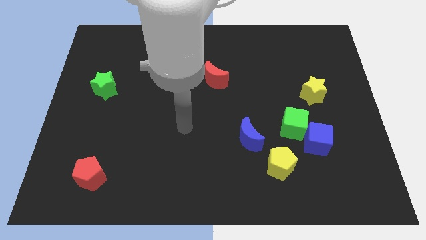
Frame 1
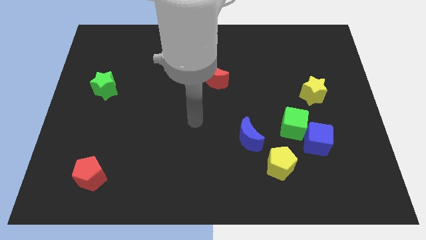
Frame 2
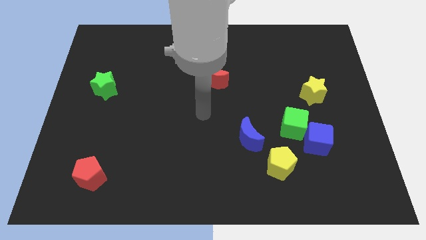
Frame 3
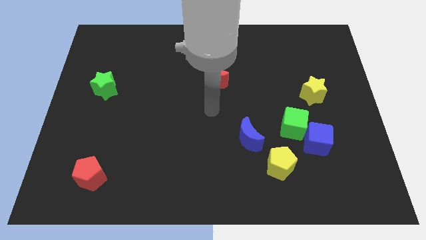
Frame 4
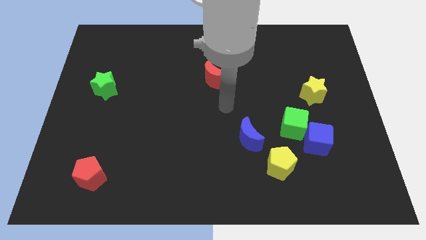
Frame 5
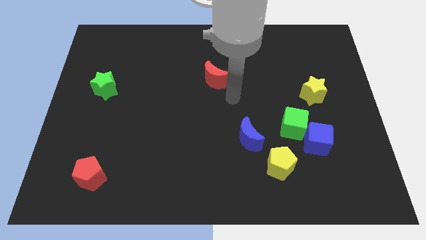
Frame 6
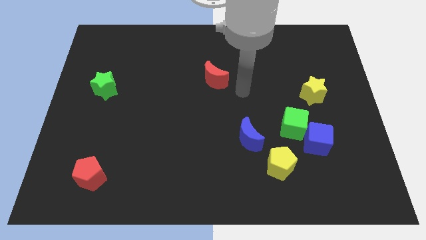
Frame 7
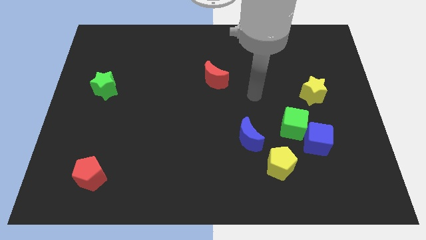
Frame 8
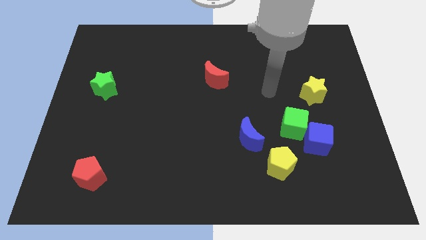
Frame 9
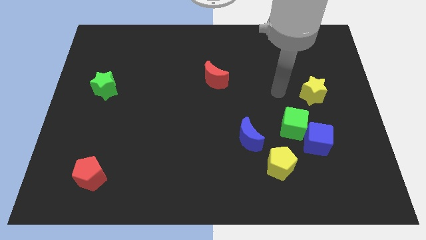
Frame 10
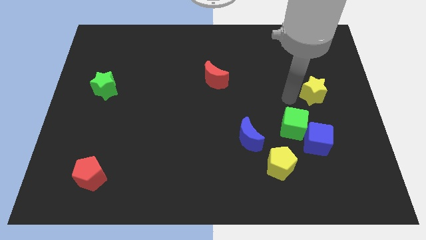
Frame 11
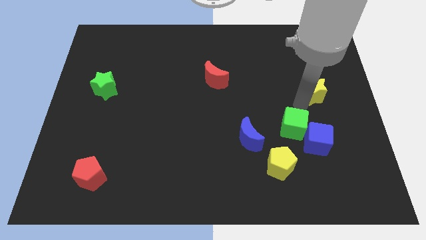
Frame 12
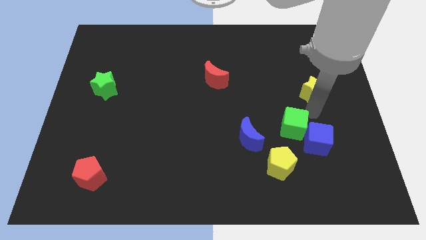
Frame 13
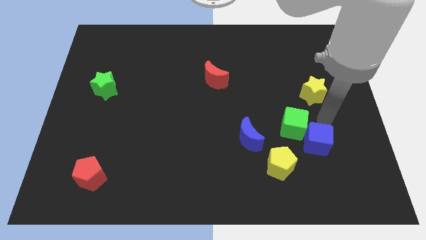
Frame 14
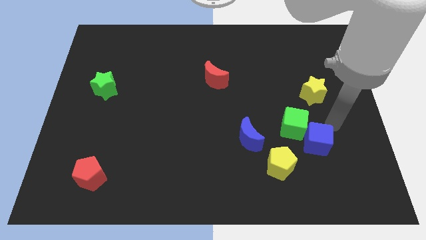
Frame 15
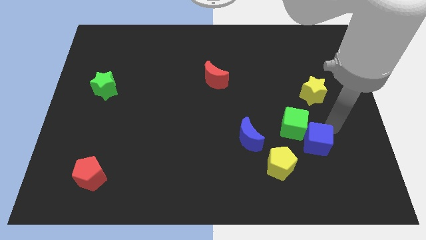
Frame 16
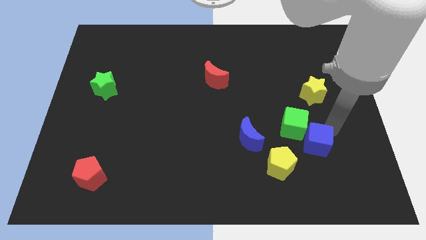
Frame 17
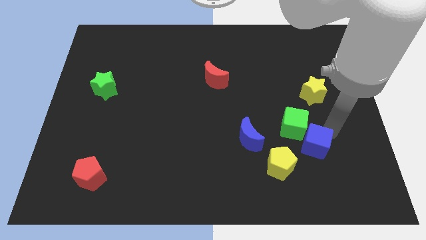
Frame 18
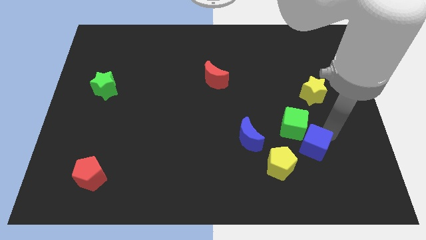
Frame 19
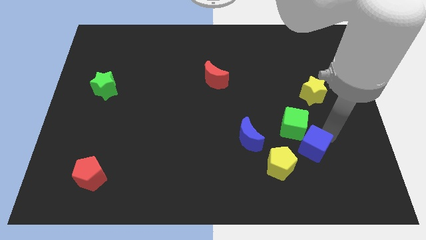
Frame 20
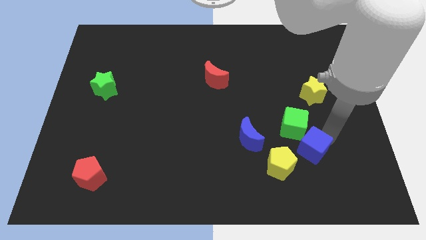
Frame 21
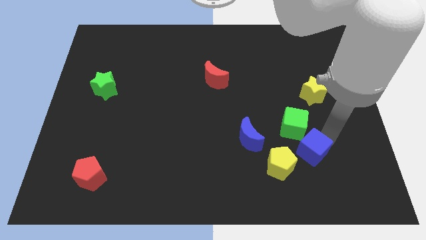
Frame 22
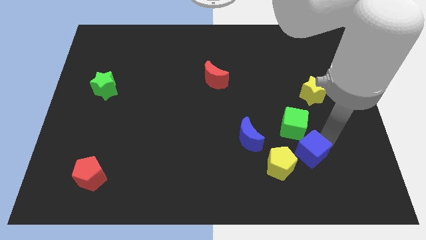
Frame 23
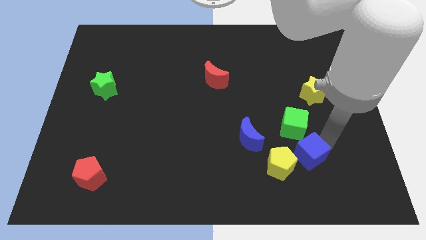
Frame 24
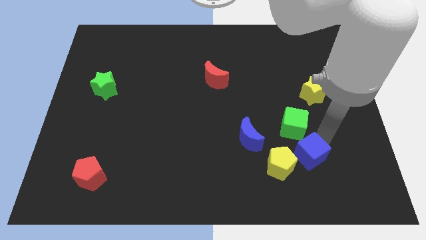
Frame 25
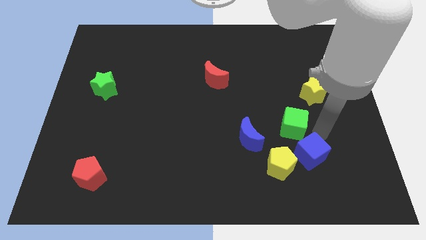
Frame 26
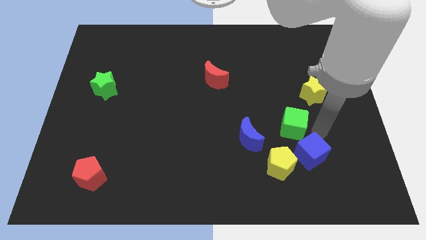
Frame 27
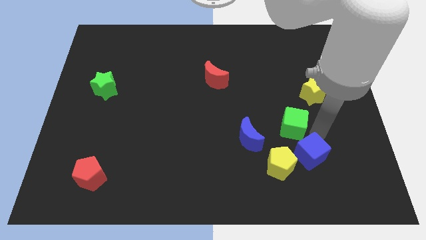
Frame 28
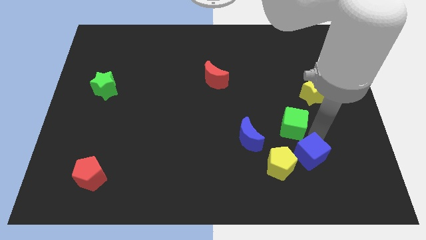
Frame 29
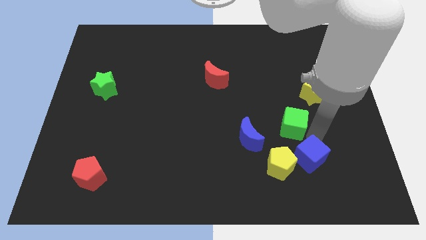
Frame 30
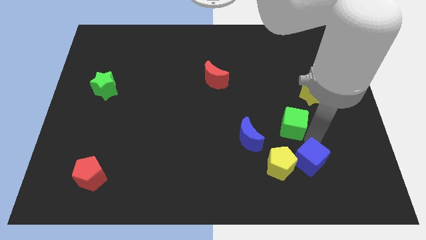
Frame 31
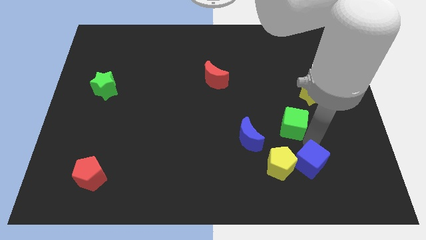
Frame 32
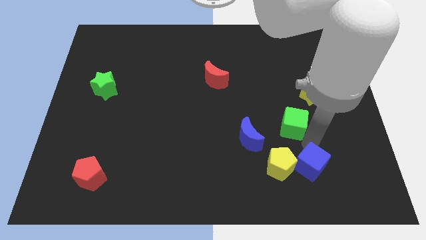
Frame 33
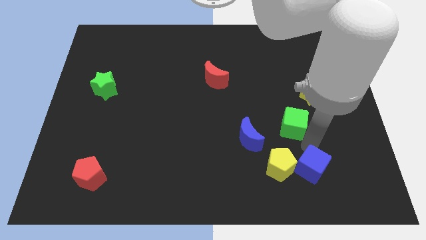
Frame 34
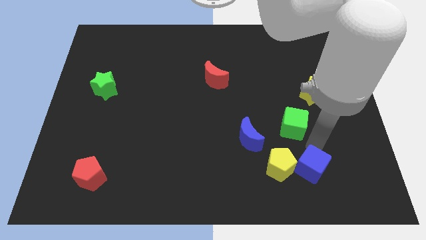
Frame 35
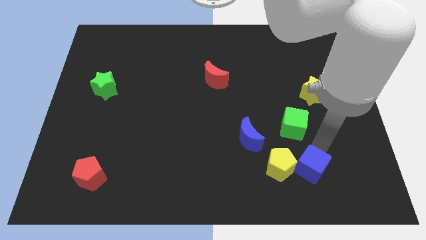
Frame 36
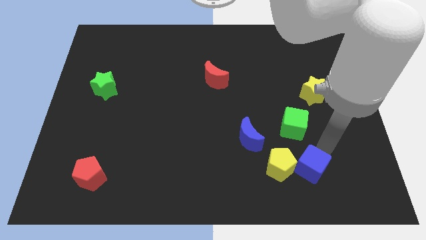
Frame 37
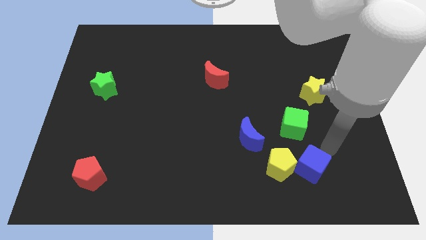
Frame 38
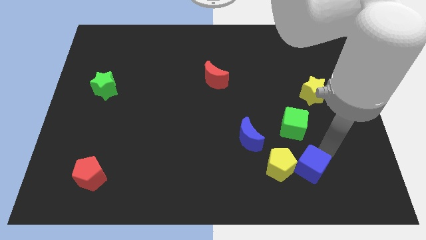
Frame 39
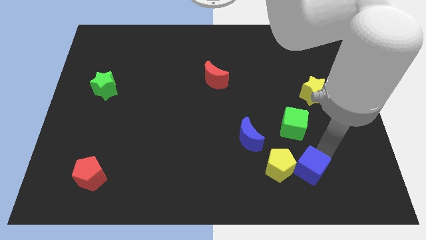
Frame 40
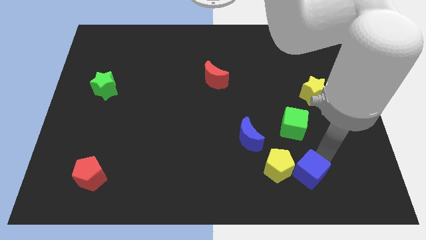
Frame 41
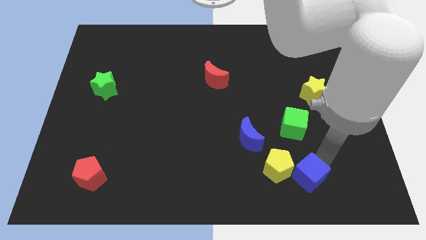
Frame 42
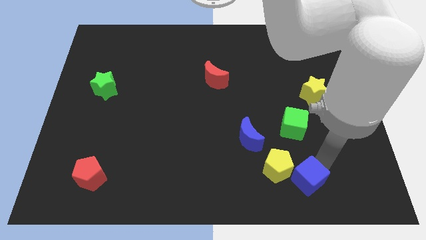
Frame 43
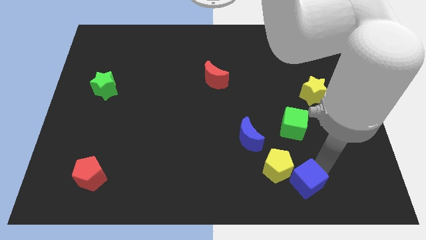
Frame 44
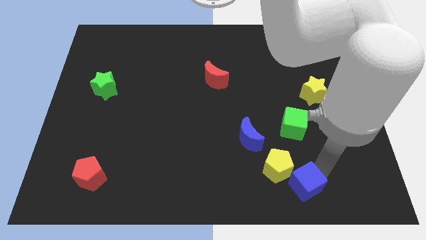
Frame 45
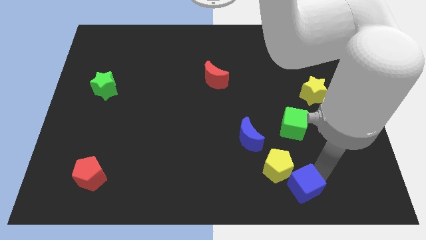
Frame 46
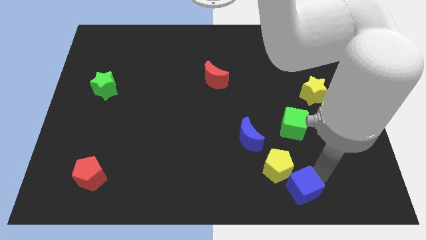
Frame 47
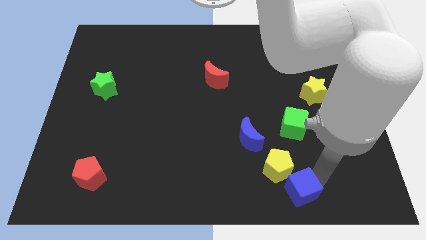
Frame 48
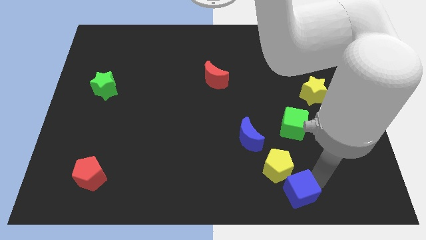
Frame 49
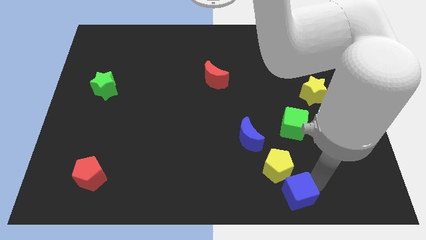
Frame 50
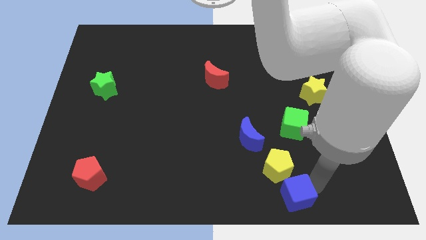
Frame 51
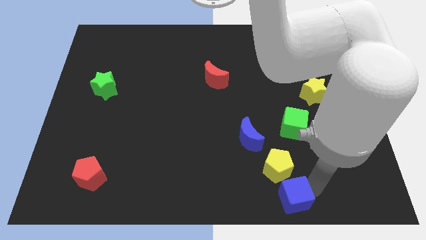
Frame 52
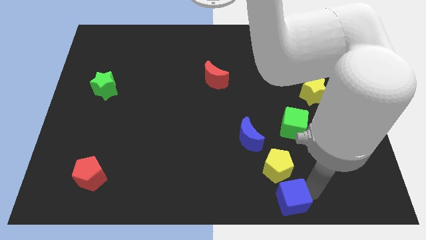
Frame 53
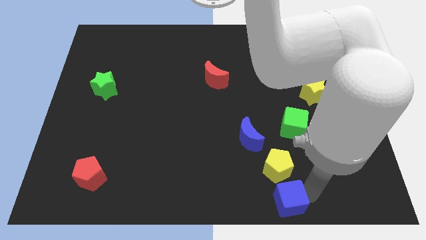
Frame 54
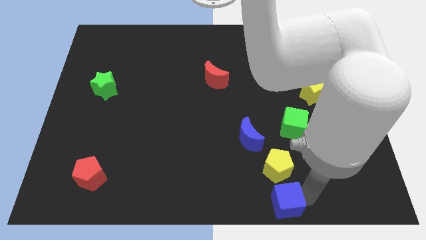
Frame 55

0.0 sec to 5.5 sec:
put the blue cube to the bottom
